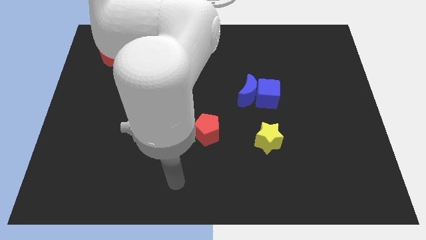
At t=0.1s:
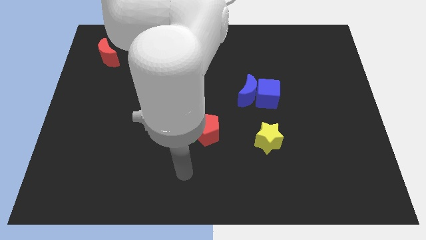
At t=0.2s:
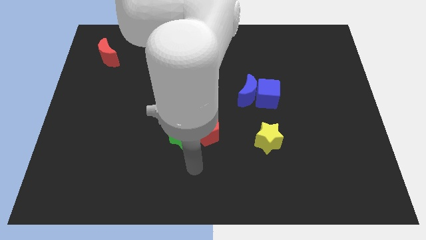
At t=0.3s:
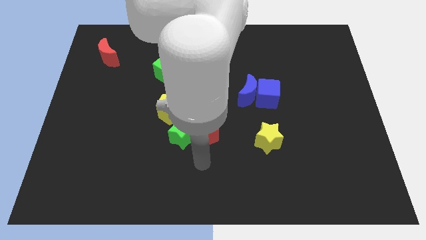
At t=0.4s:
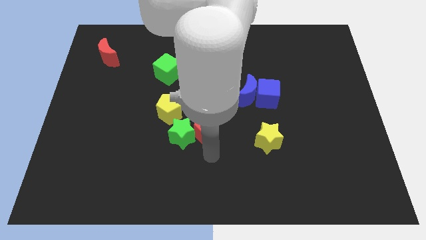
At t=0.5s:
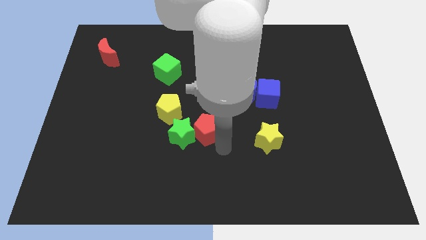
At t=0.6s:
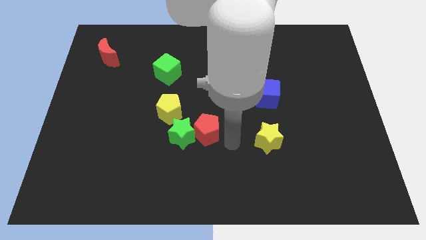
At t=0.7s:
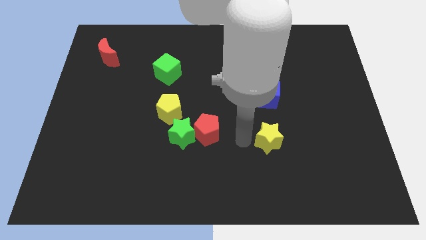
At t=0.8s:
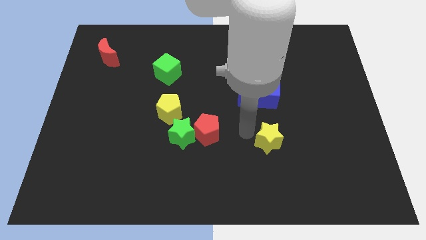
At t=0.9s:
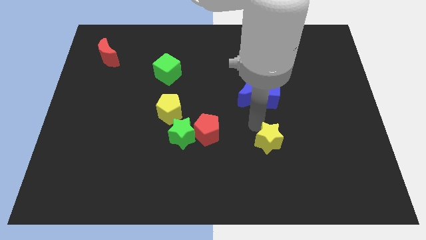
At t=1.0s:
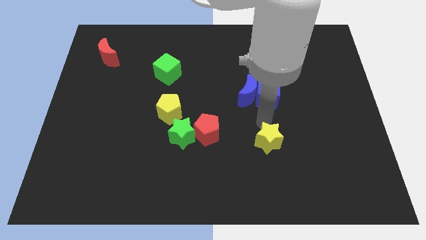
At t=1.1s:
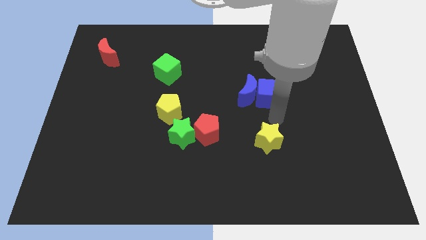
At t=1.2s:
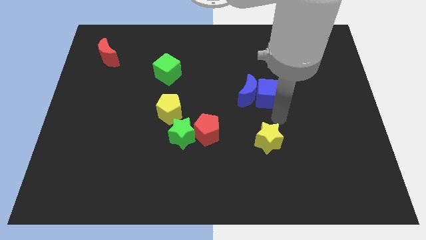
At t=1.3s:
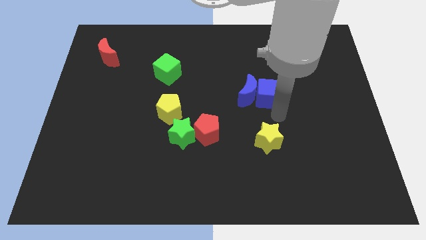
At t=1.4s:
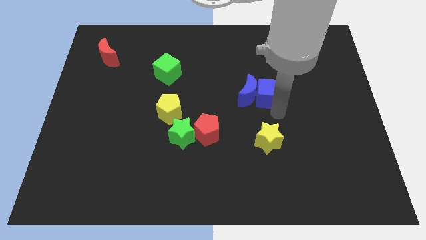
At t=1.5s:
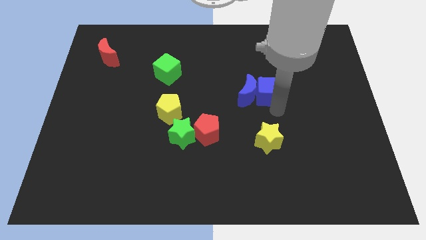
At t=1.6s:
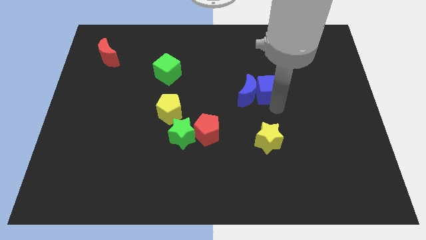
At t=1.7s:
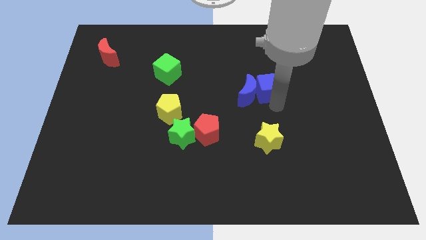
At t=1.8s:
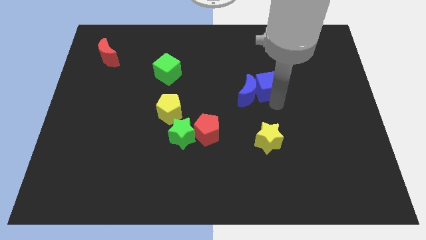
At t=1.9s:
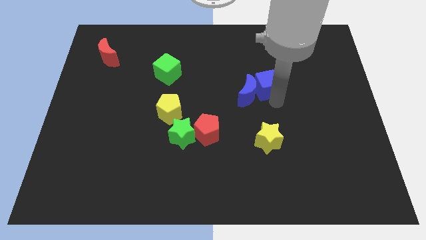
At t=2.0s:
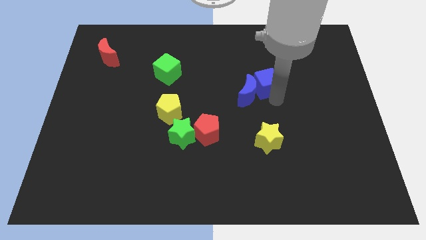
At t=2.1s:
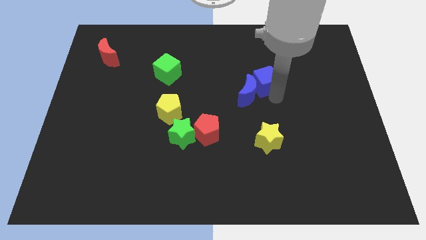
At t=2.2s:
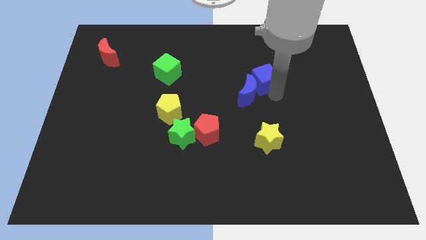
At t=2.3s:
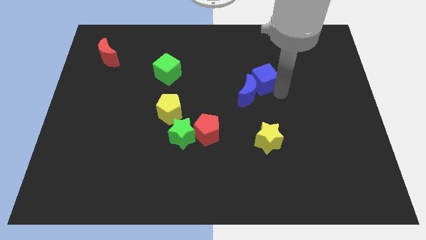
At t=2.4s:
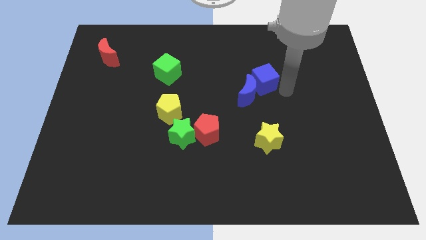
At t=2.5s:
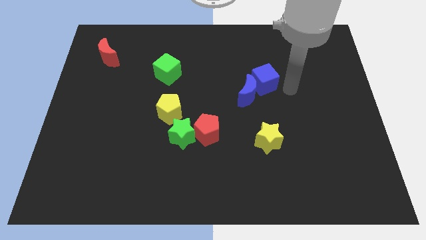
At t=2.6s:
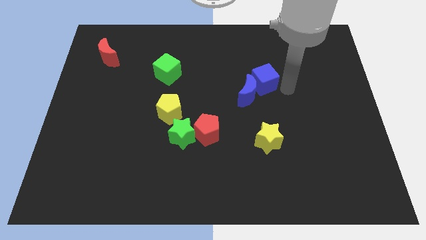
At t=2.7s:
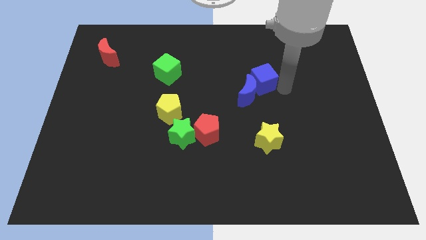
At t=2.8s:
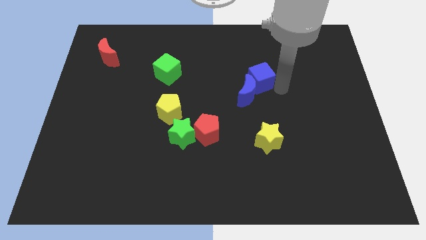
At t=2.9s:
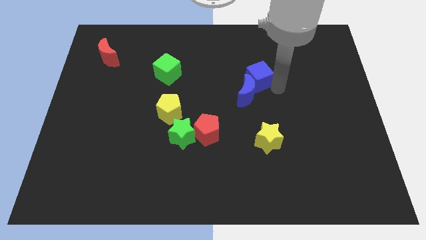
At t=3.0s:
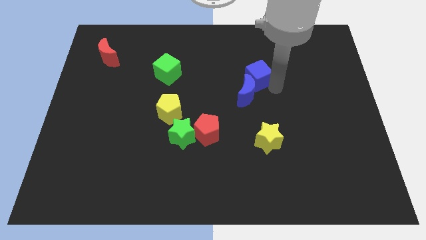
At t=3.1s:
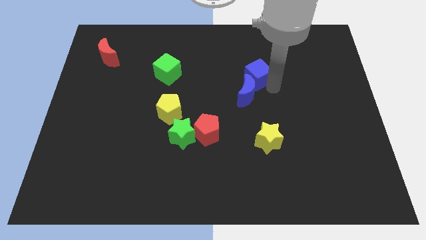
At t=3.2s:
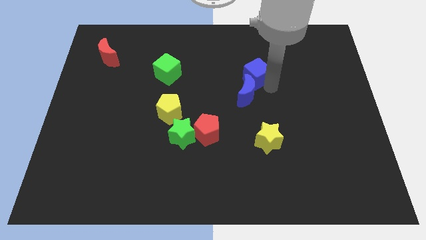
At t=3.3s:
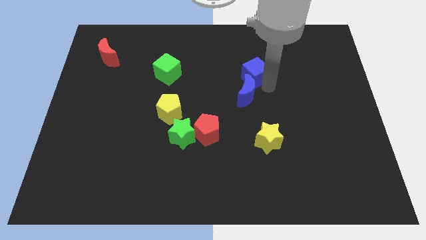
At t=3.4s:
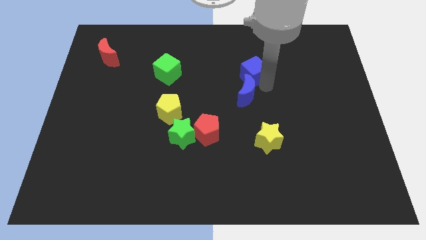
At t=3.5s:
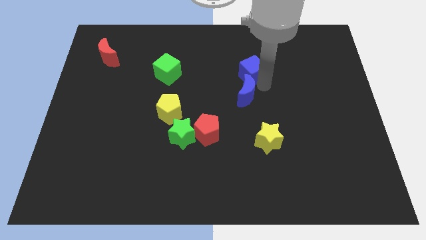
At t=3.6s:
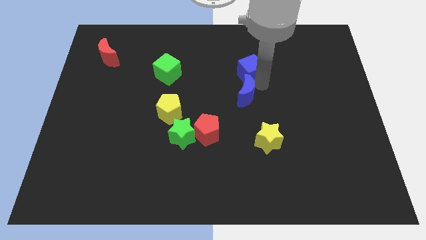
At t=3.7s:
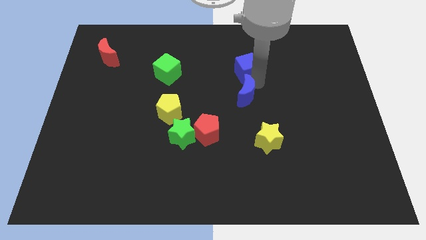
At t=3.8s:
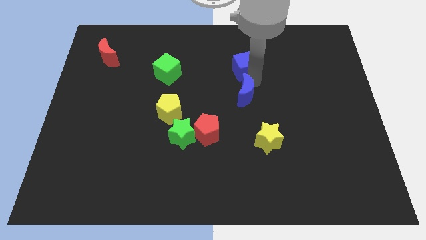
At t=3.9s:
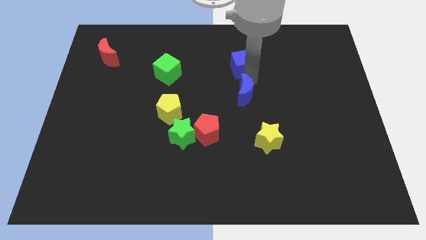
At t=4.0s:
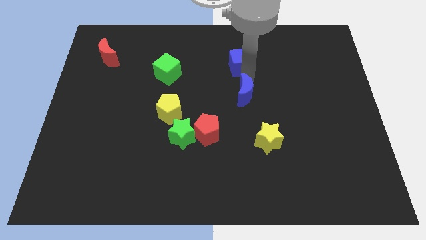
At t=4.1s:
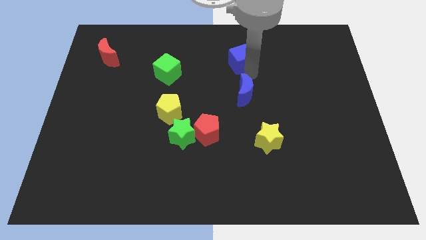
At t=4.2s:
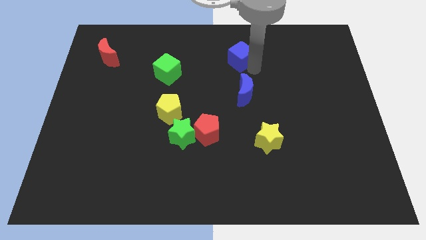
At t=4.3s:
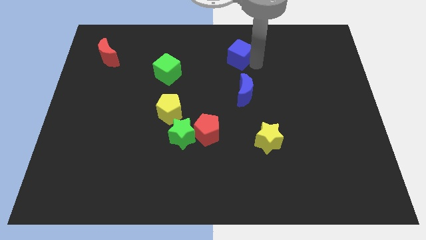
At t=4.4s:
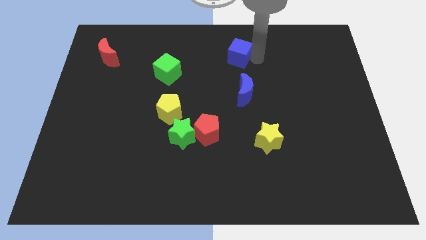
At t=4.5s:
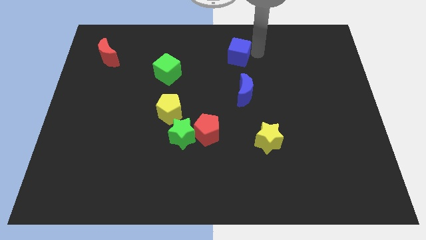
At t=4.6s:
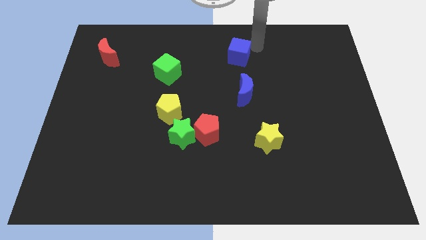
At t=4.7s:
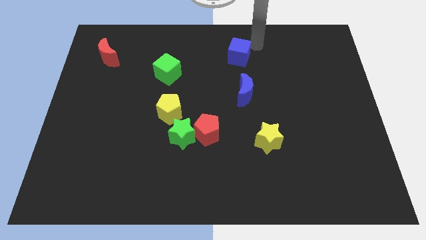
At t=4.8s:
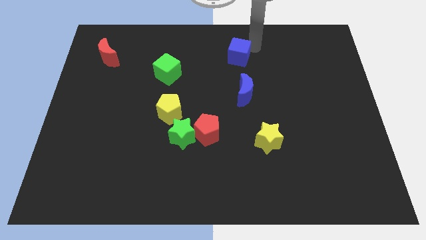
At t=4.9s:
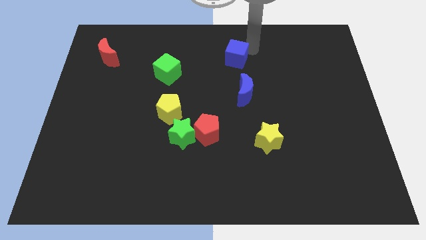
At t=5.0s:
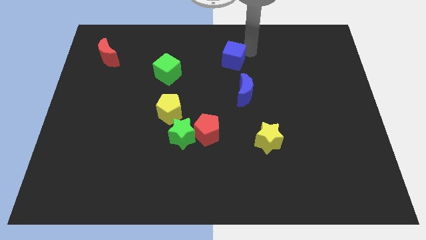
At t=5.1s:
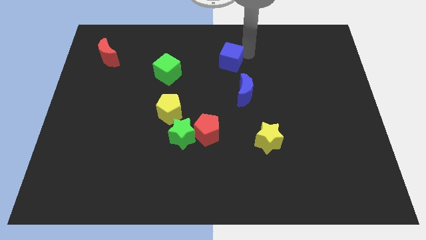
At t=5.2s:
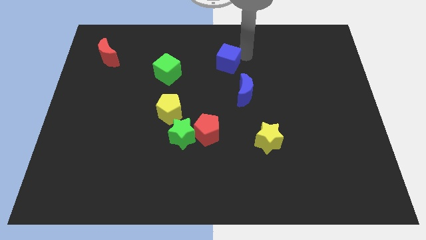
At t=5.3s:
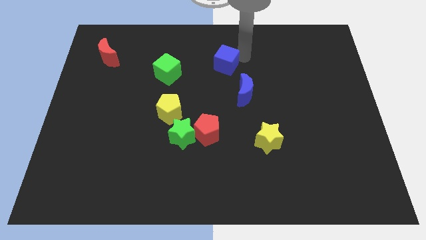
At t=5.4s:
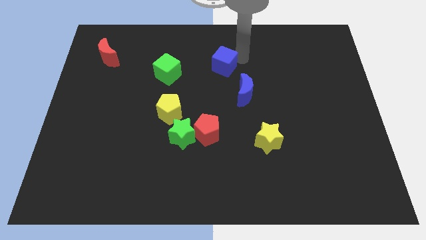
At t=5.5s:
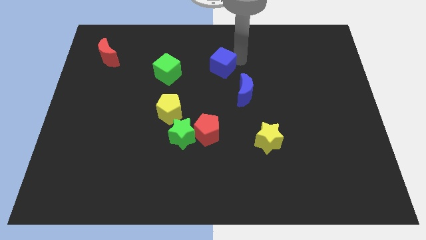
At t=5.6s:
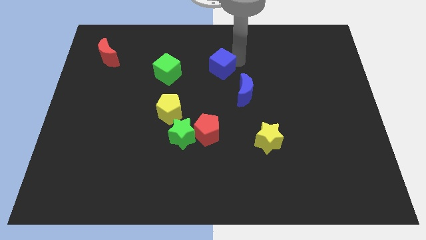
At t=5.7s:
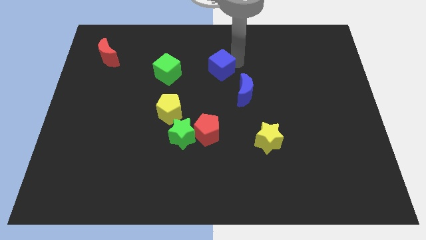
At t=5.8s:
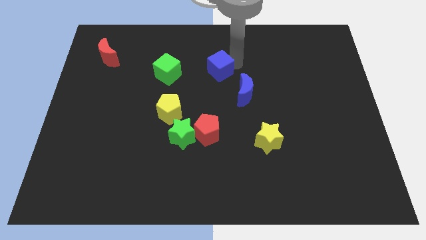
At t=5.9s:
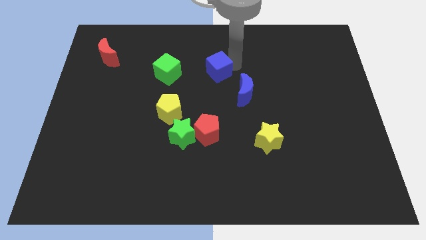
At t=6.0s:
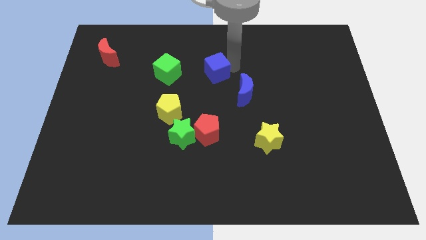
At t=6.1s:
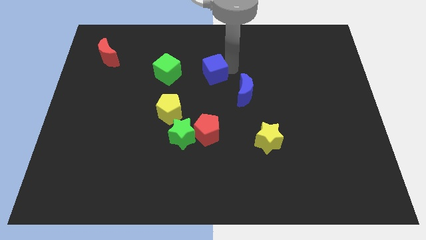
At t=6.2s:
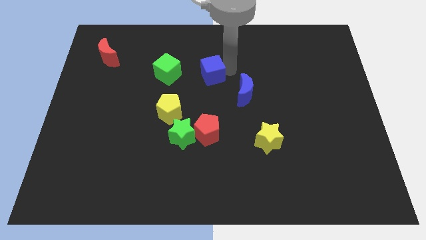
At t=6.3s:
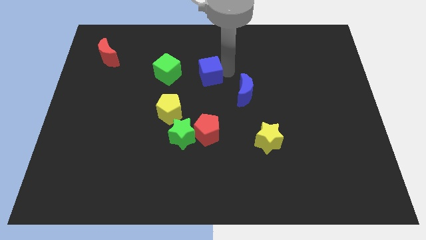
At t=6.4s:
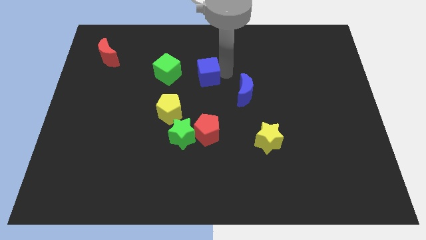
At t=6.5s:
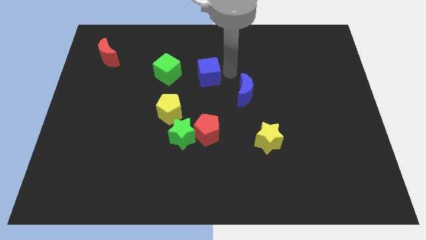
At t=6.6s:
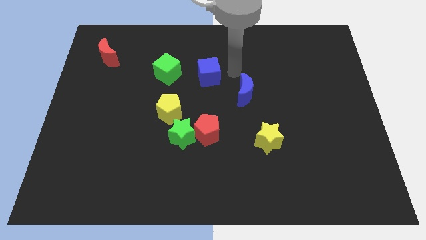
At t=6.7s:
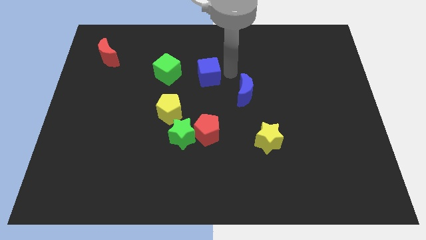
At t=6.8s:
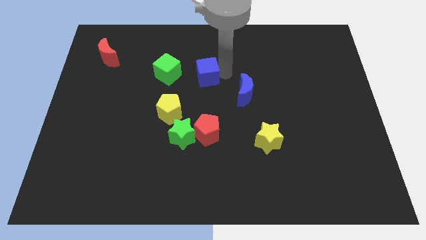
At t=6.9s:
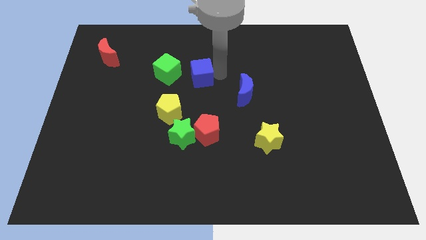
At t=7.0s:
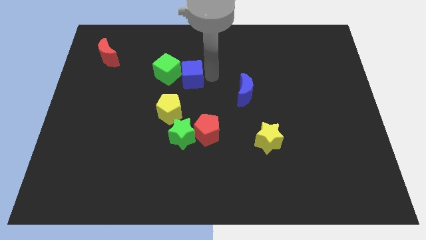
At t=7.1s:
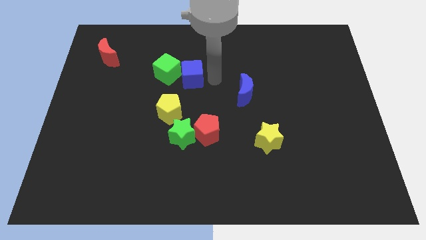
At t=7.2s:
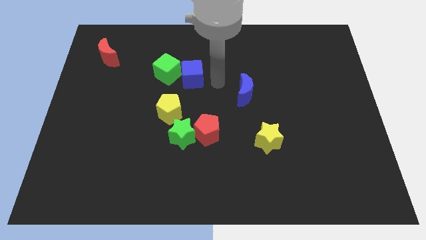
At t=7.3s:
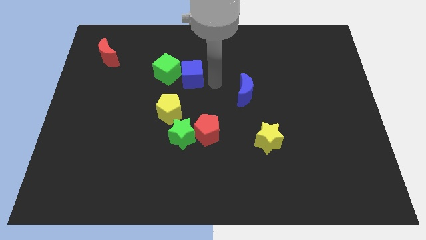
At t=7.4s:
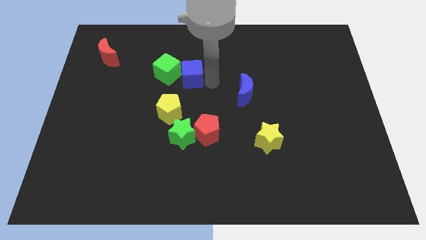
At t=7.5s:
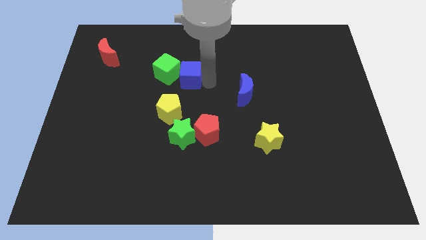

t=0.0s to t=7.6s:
push the blue cube to the green cube
